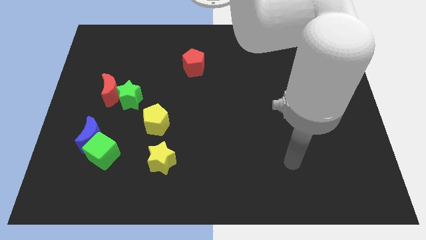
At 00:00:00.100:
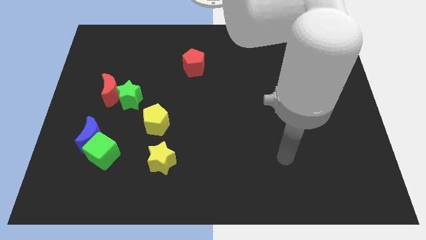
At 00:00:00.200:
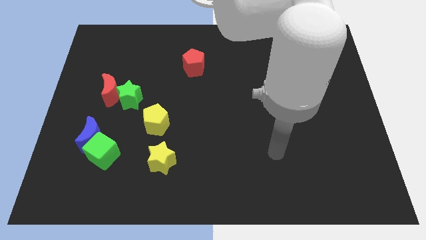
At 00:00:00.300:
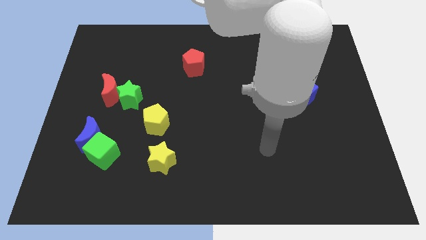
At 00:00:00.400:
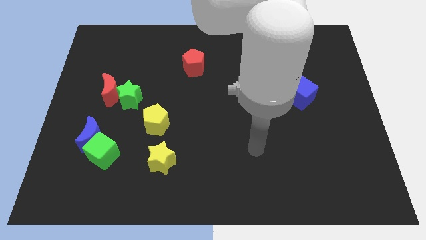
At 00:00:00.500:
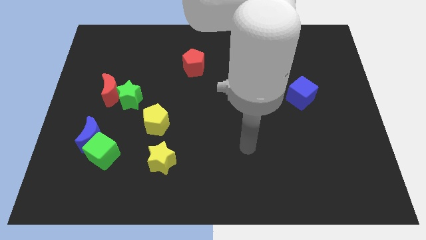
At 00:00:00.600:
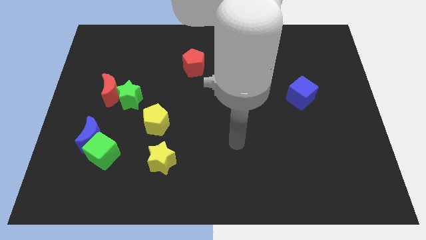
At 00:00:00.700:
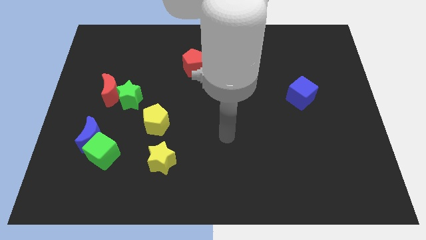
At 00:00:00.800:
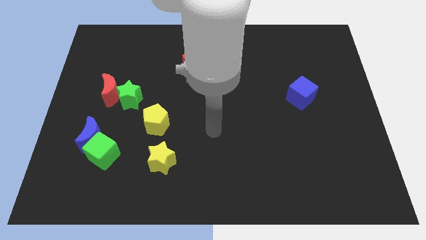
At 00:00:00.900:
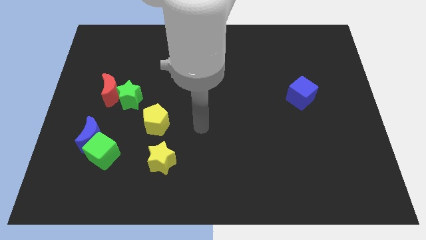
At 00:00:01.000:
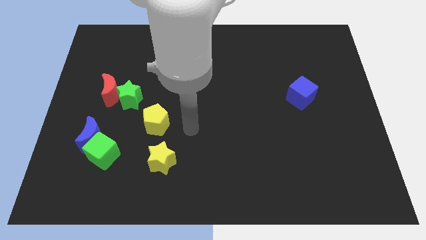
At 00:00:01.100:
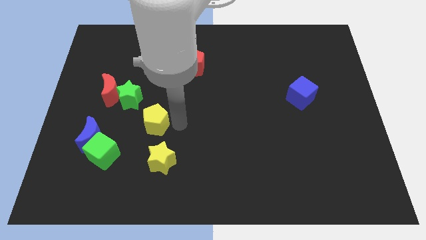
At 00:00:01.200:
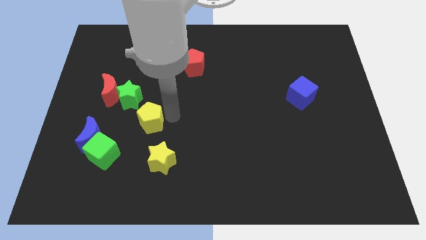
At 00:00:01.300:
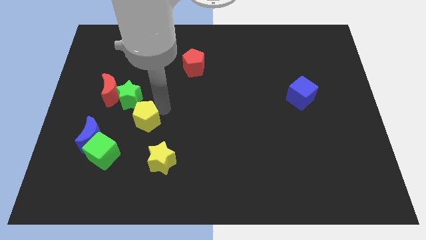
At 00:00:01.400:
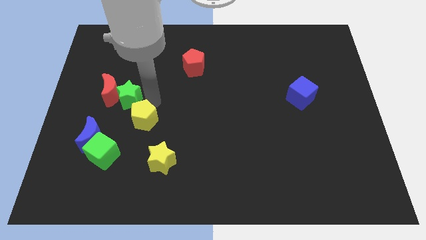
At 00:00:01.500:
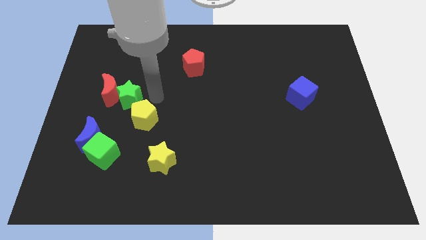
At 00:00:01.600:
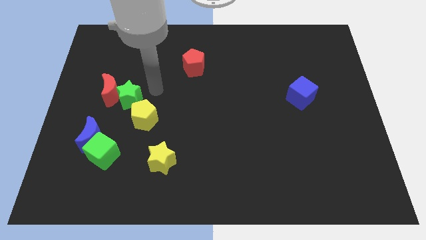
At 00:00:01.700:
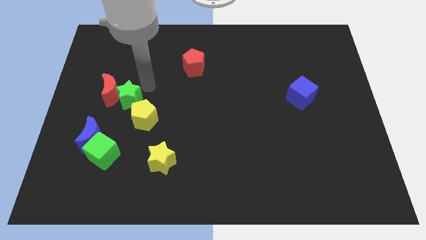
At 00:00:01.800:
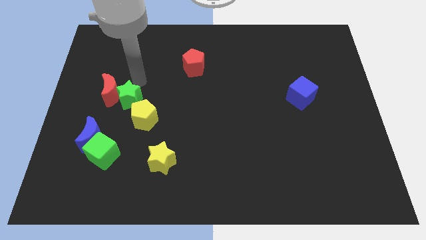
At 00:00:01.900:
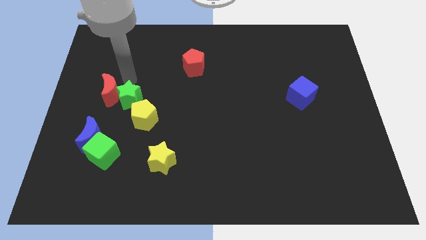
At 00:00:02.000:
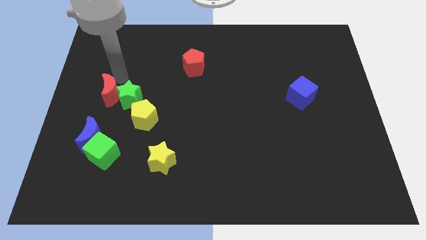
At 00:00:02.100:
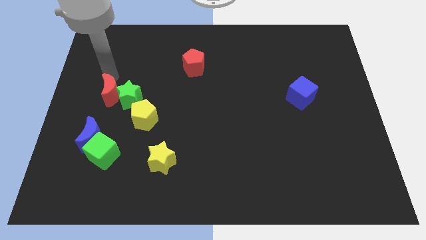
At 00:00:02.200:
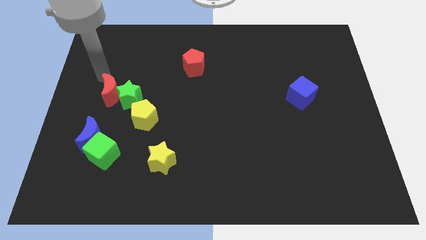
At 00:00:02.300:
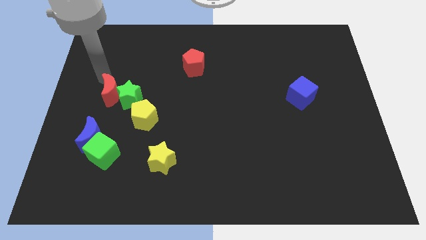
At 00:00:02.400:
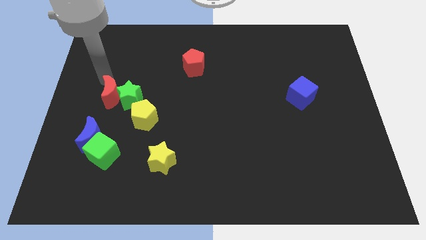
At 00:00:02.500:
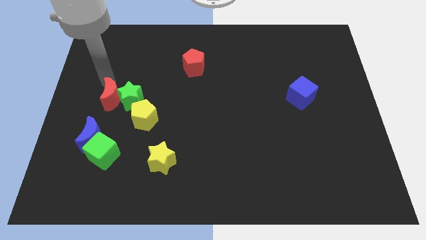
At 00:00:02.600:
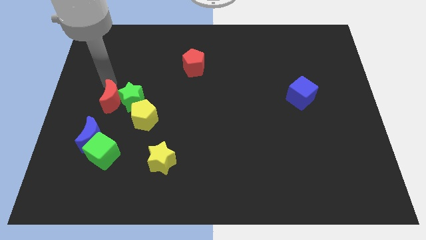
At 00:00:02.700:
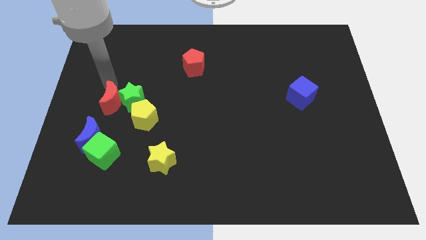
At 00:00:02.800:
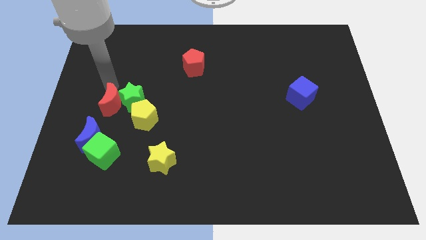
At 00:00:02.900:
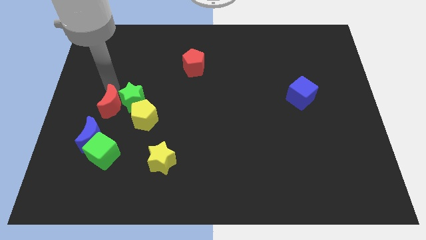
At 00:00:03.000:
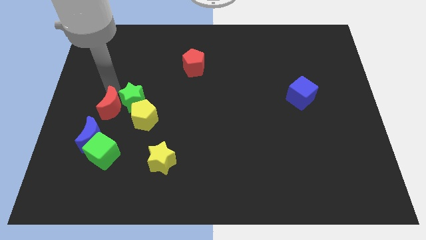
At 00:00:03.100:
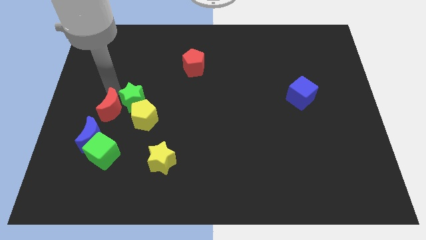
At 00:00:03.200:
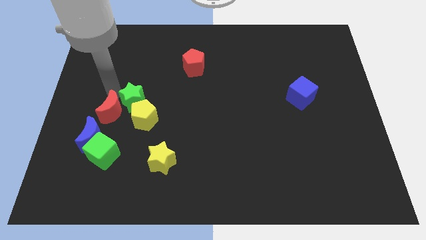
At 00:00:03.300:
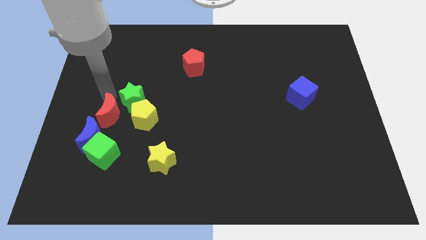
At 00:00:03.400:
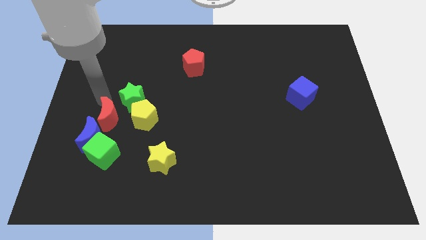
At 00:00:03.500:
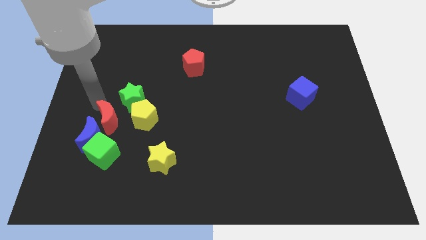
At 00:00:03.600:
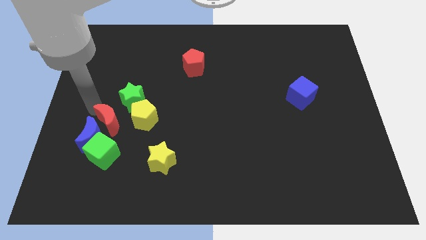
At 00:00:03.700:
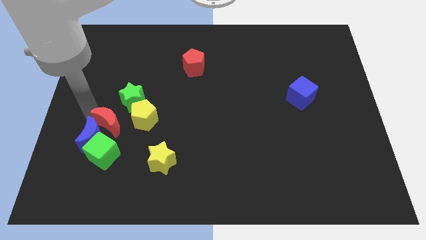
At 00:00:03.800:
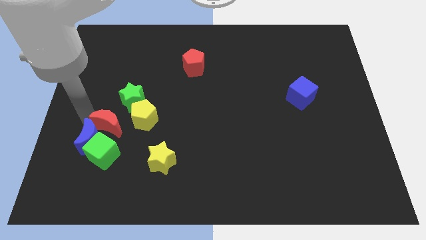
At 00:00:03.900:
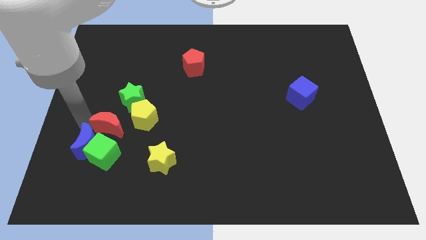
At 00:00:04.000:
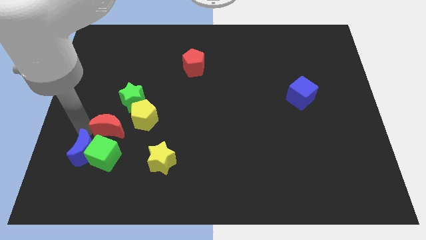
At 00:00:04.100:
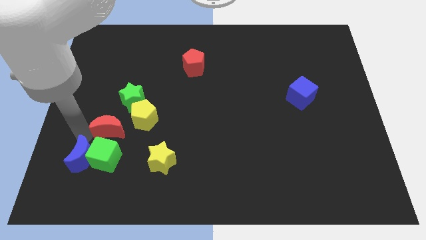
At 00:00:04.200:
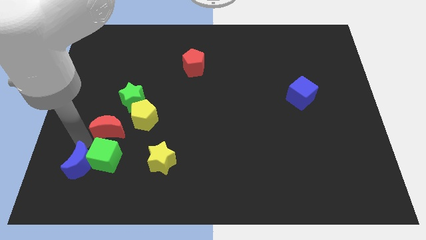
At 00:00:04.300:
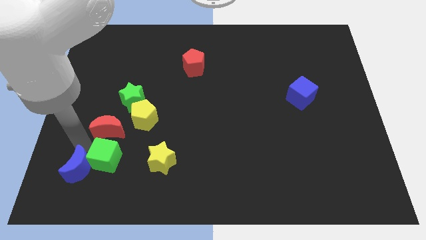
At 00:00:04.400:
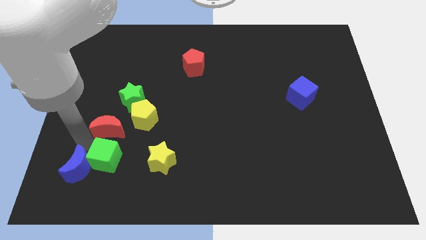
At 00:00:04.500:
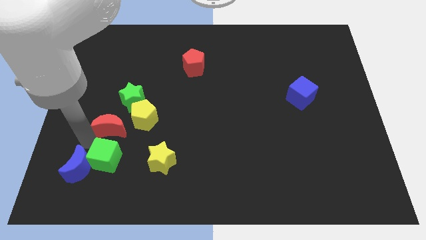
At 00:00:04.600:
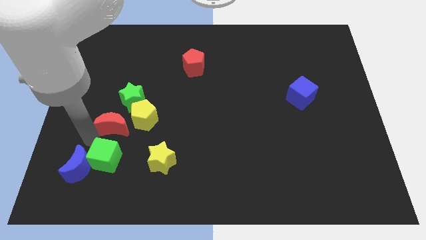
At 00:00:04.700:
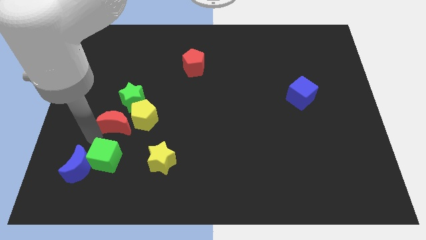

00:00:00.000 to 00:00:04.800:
move the red moon next to the yellow pentagon

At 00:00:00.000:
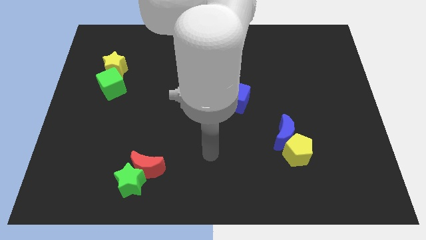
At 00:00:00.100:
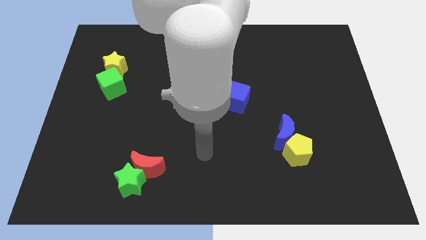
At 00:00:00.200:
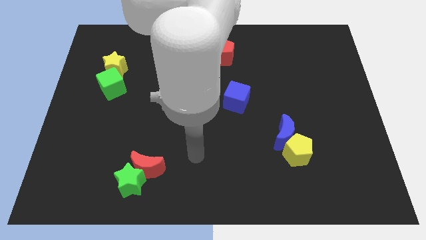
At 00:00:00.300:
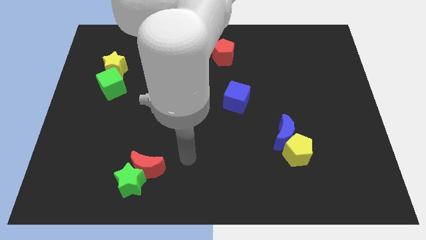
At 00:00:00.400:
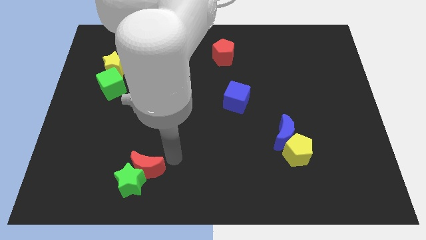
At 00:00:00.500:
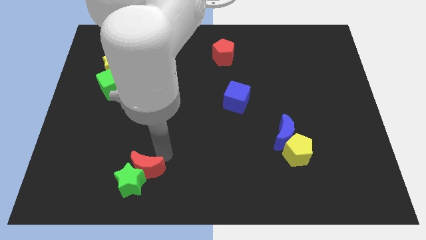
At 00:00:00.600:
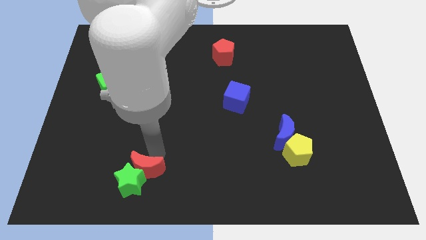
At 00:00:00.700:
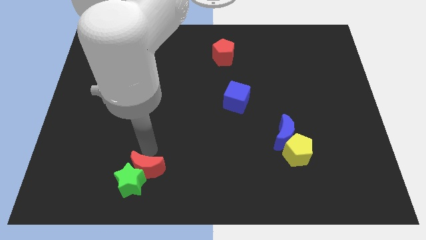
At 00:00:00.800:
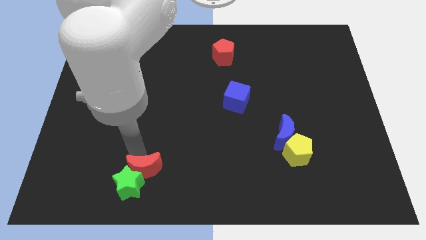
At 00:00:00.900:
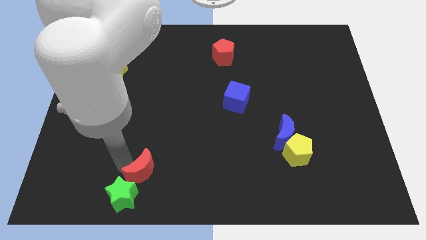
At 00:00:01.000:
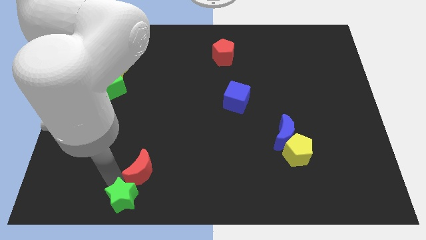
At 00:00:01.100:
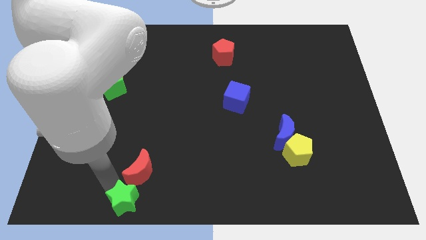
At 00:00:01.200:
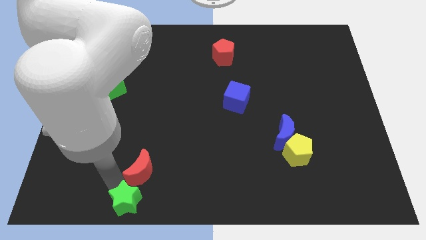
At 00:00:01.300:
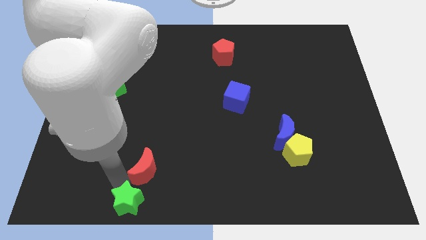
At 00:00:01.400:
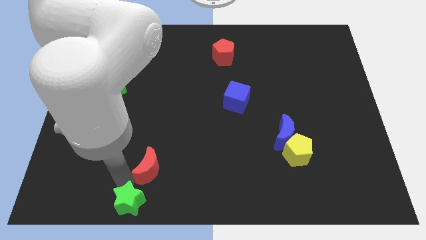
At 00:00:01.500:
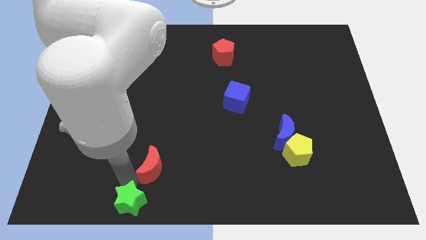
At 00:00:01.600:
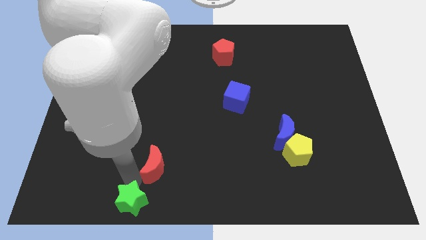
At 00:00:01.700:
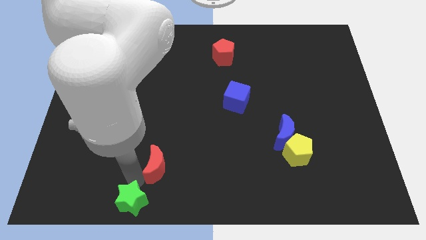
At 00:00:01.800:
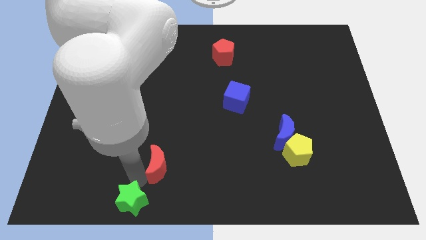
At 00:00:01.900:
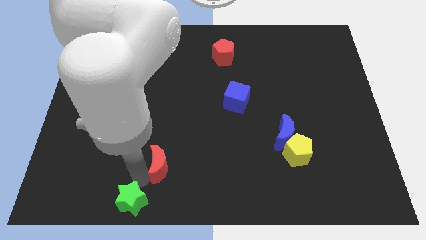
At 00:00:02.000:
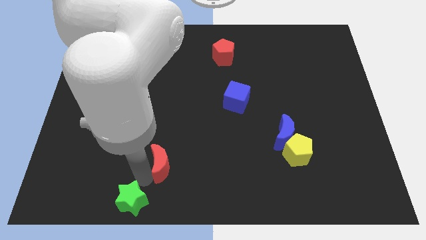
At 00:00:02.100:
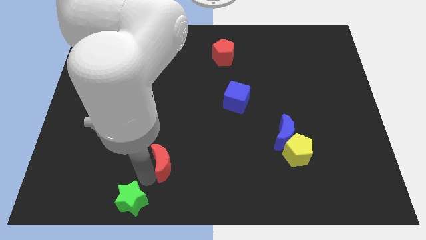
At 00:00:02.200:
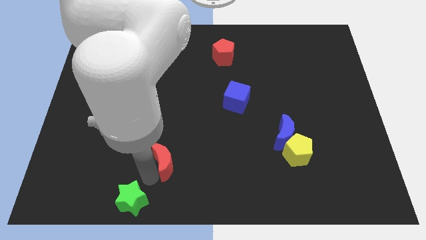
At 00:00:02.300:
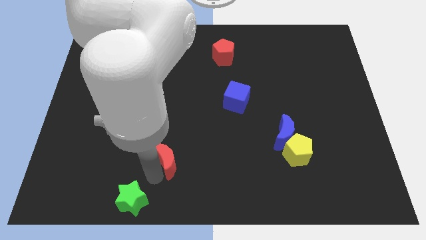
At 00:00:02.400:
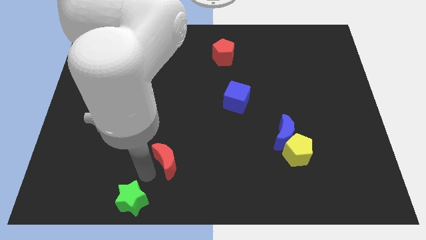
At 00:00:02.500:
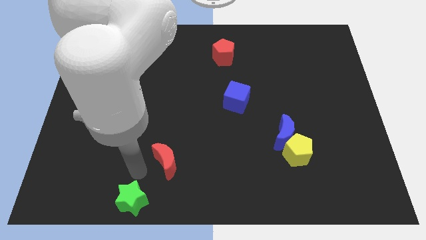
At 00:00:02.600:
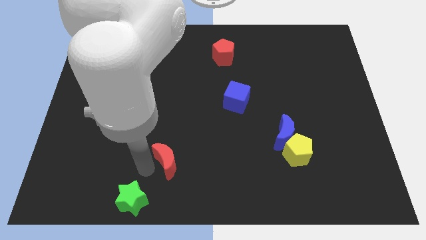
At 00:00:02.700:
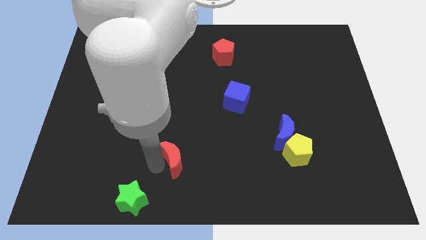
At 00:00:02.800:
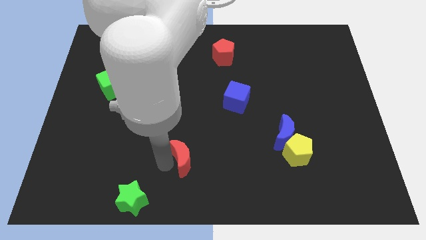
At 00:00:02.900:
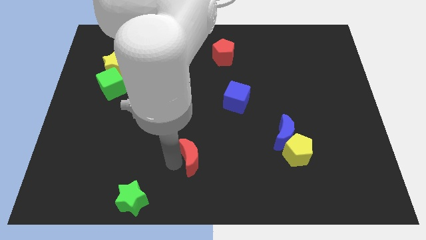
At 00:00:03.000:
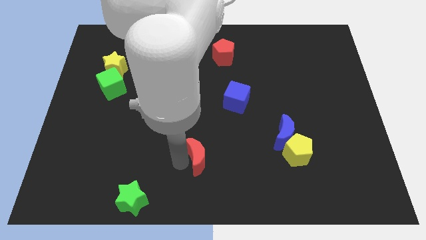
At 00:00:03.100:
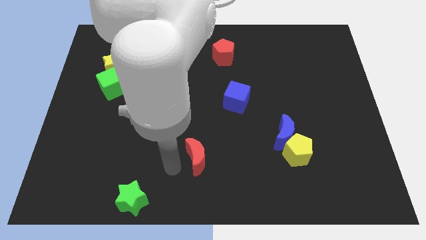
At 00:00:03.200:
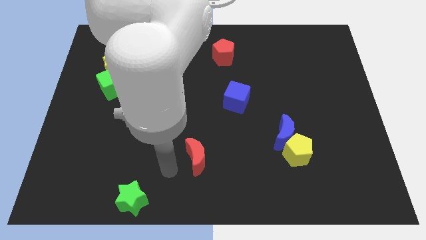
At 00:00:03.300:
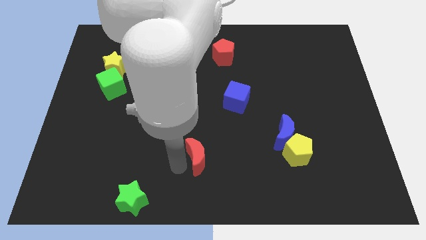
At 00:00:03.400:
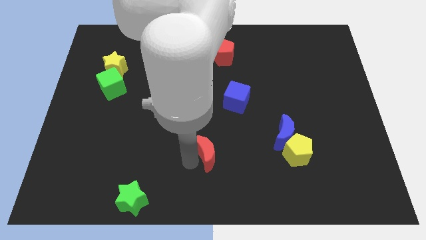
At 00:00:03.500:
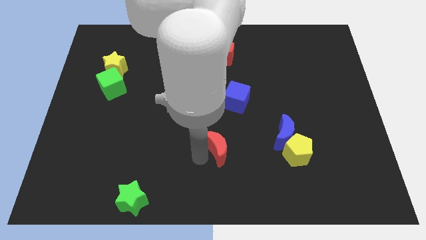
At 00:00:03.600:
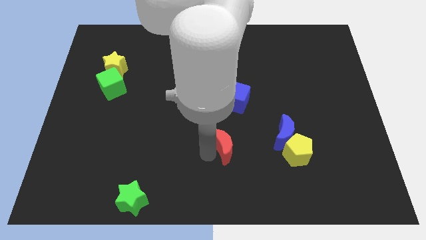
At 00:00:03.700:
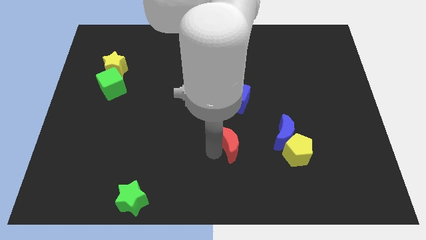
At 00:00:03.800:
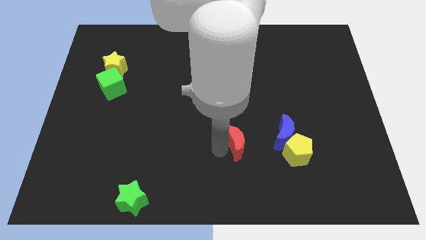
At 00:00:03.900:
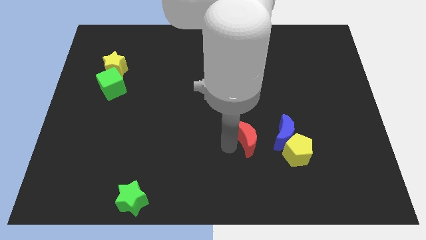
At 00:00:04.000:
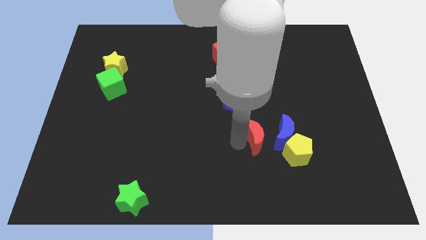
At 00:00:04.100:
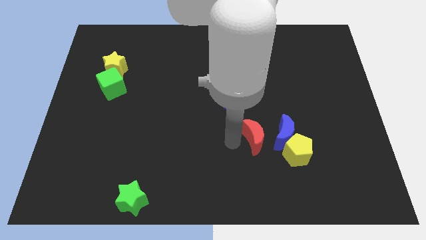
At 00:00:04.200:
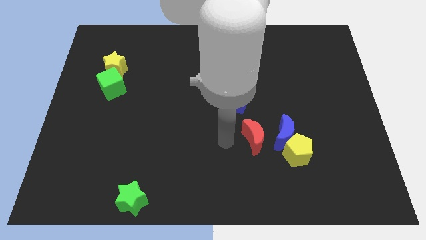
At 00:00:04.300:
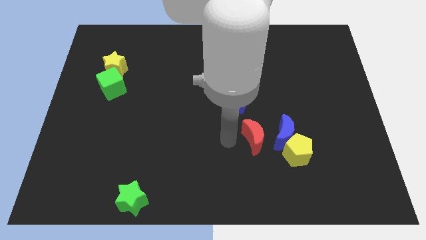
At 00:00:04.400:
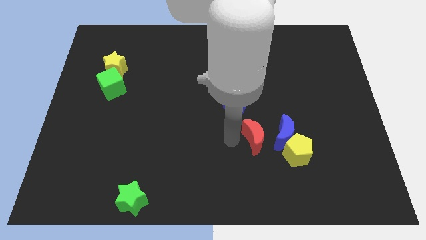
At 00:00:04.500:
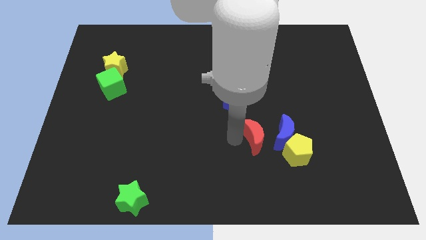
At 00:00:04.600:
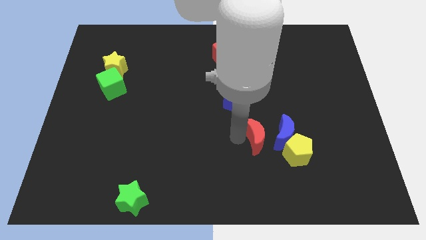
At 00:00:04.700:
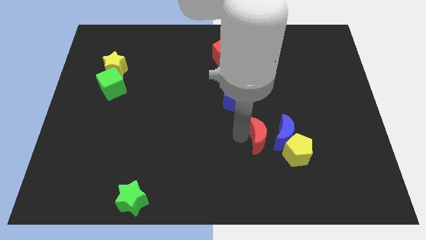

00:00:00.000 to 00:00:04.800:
move the red moon next to the blue moon
